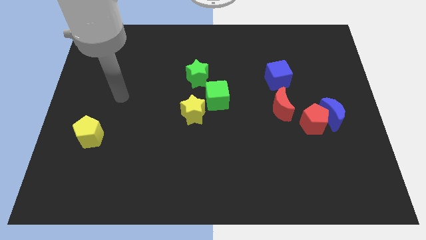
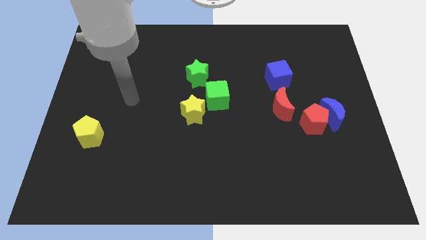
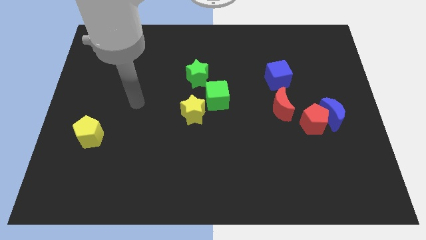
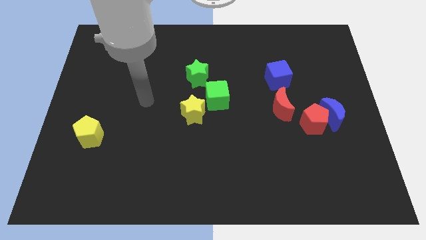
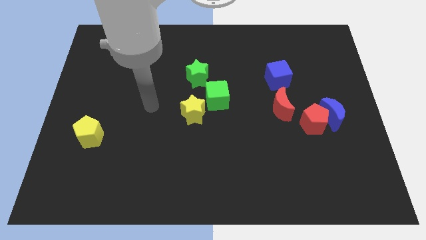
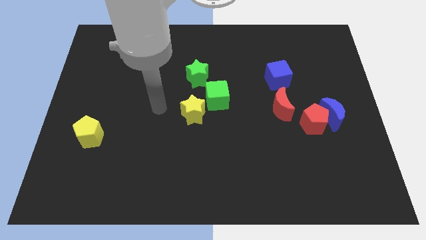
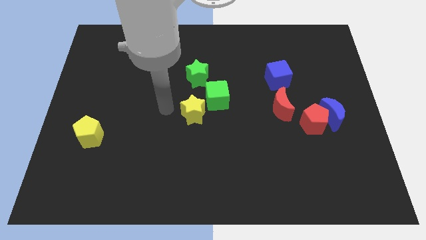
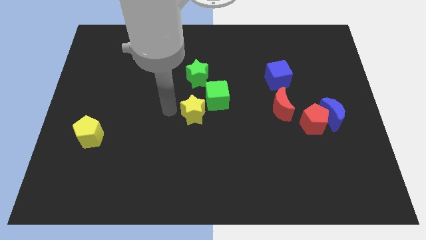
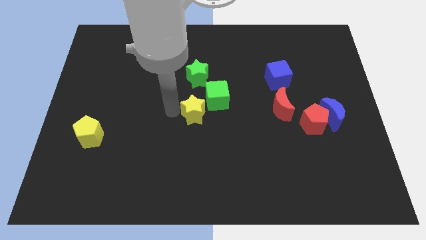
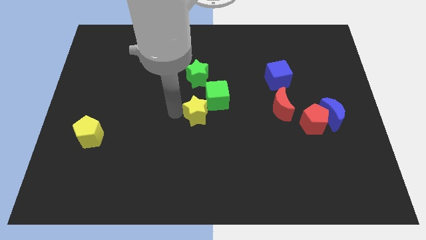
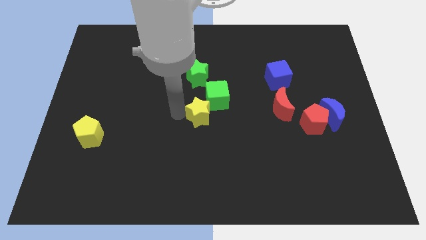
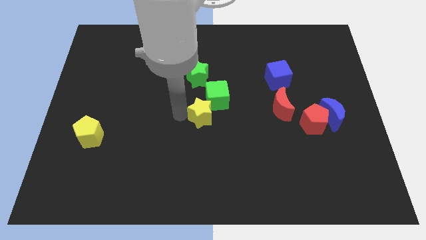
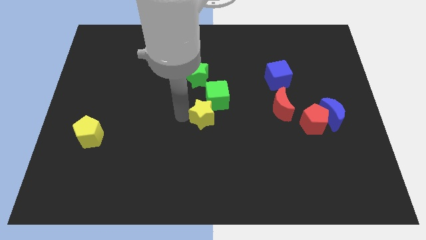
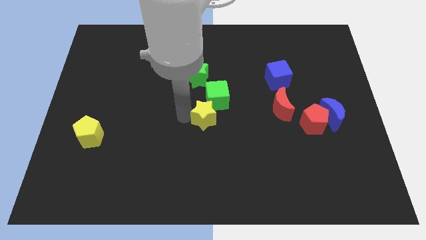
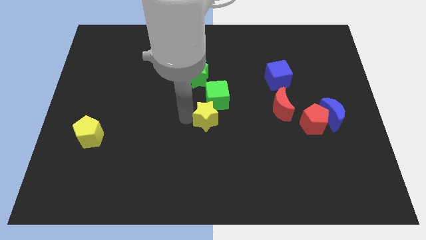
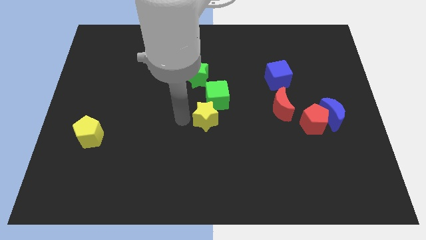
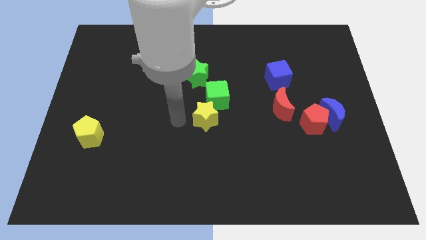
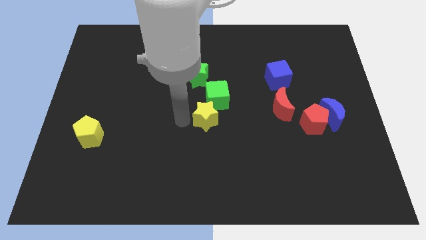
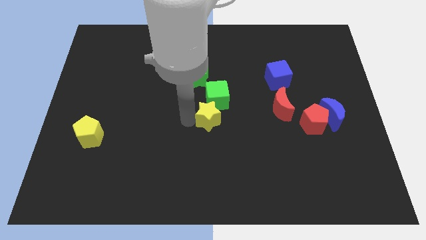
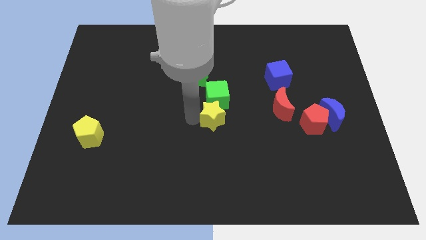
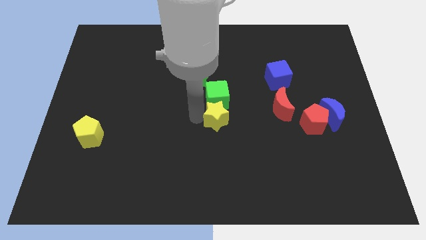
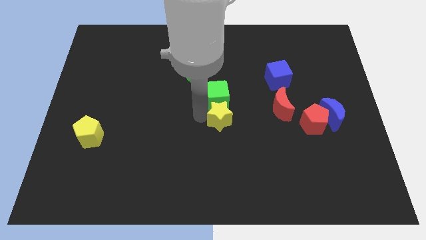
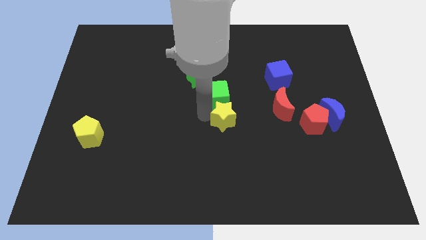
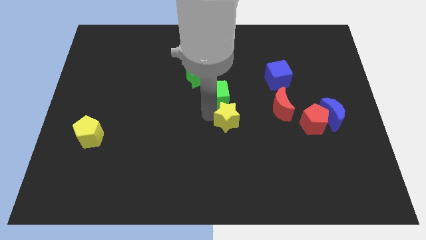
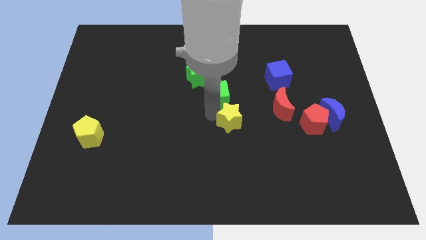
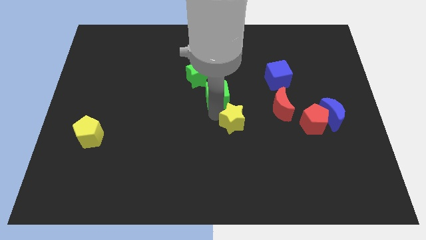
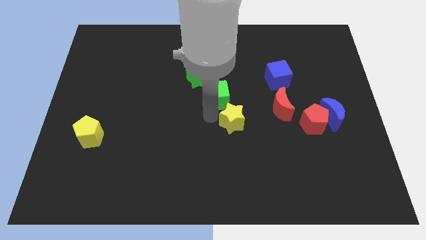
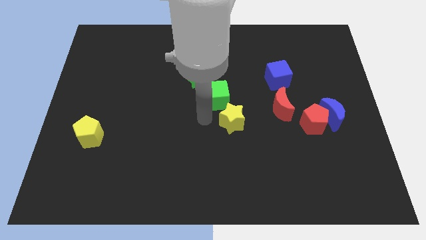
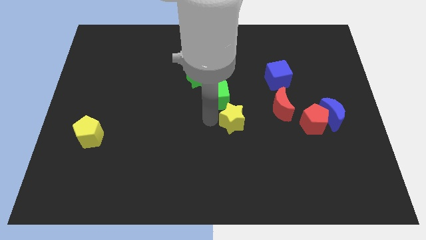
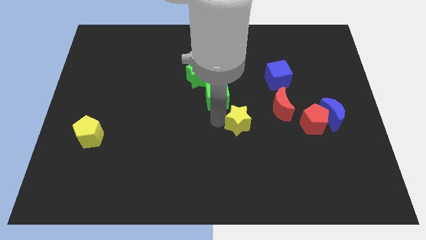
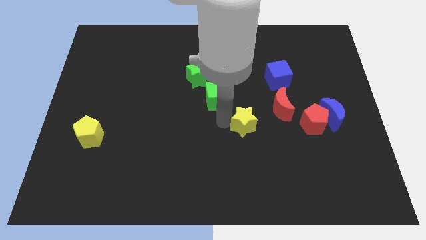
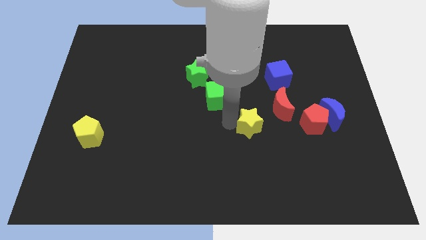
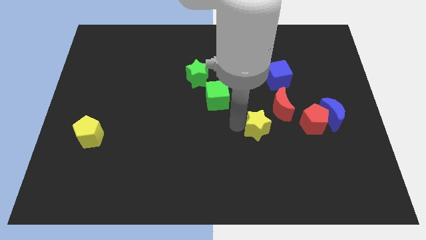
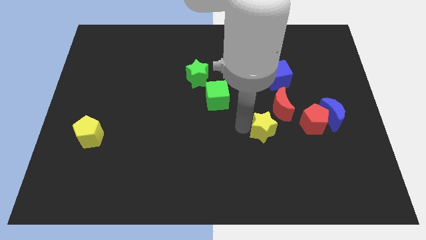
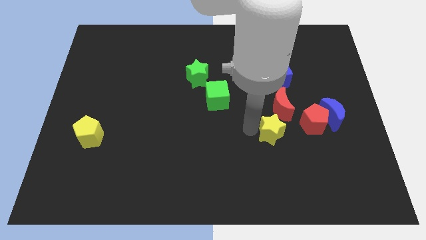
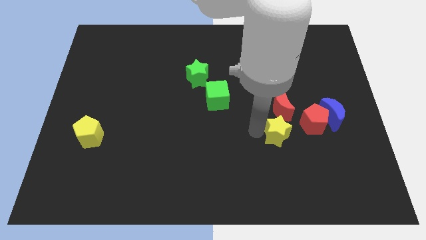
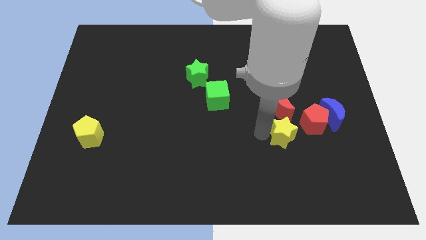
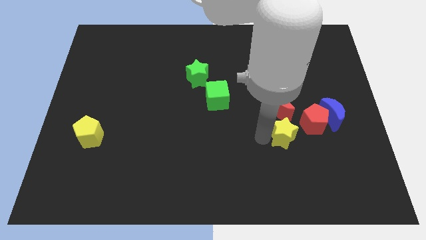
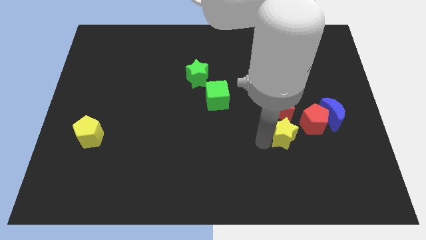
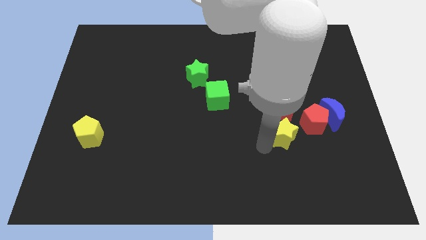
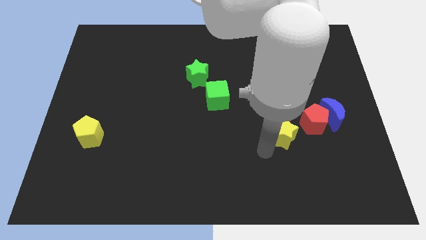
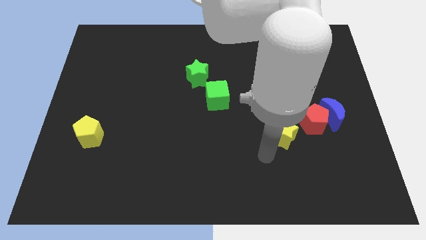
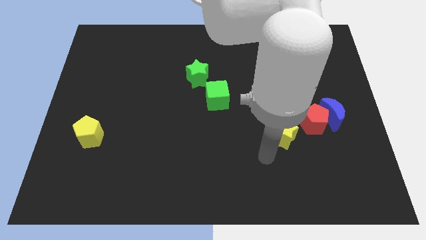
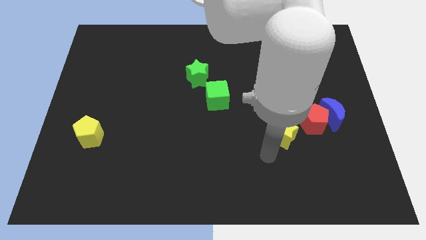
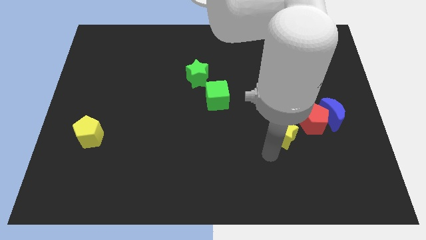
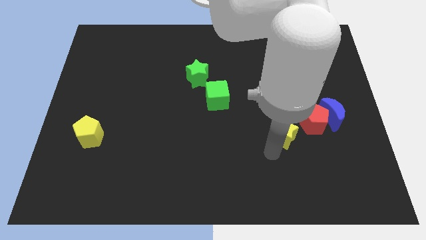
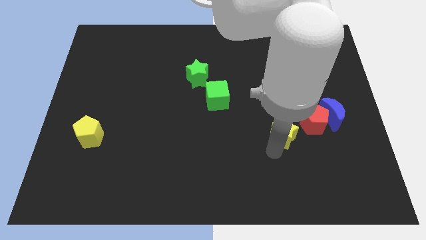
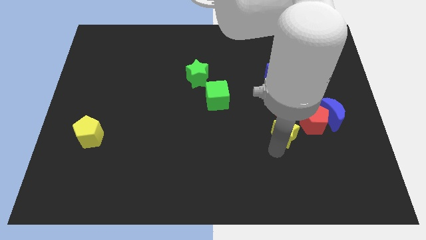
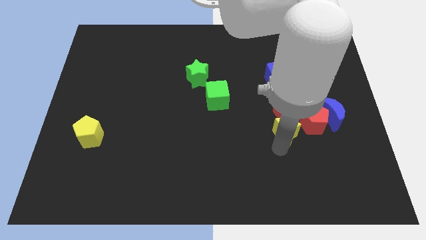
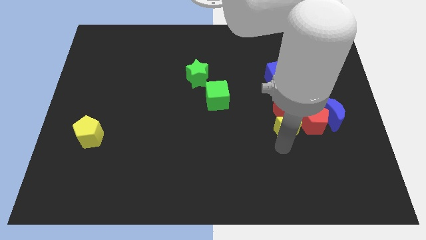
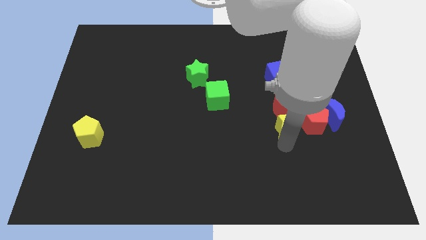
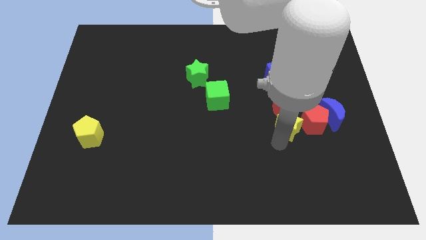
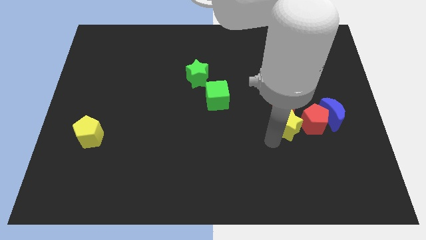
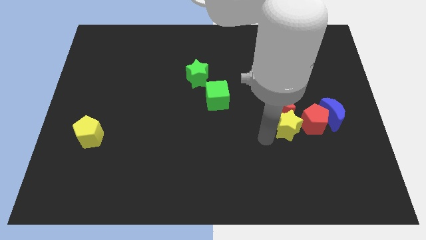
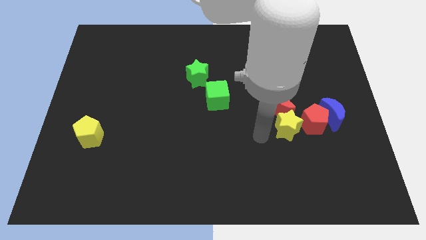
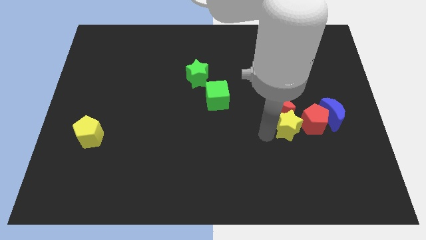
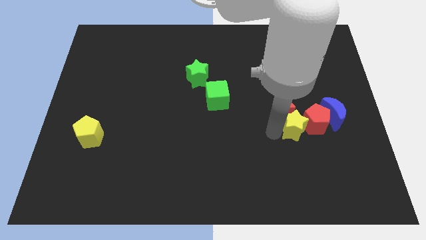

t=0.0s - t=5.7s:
move the yellow star next to the red pentagon

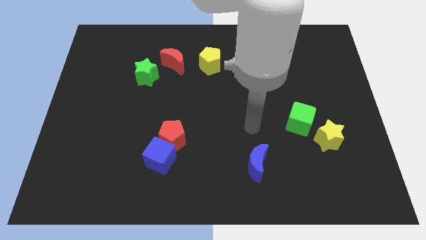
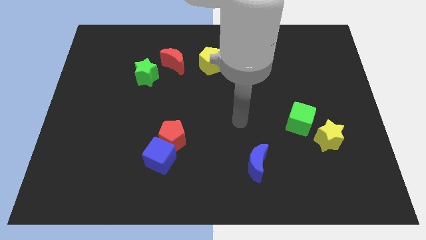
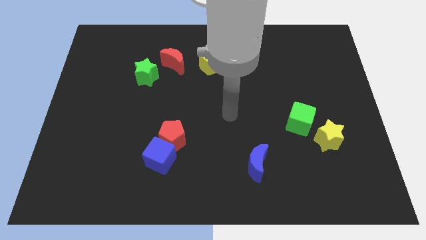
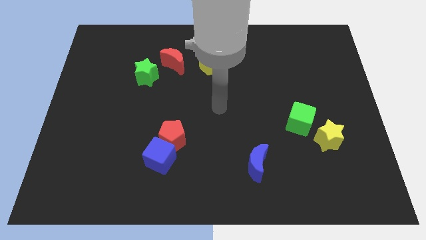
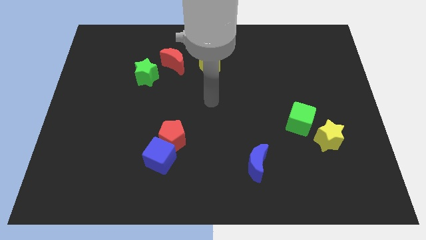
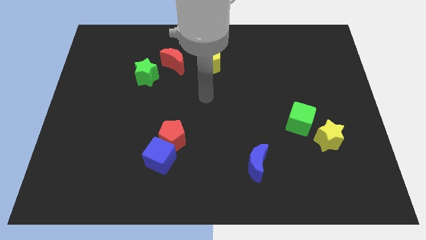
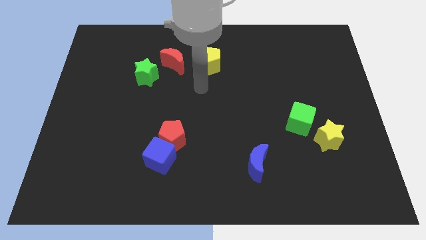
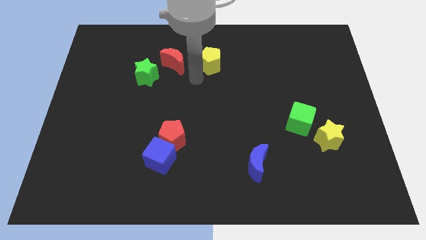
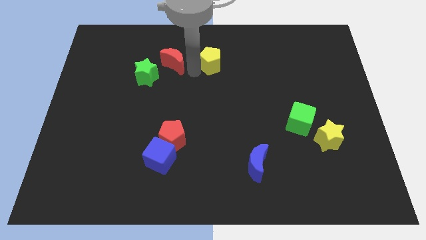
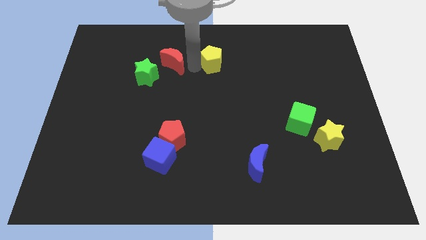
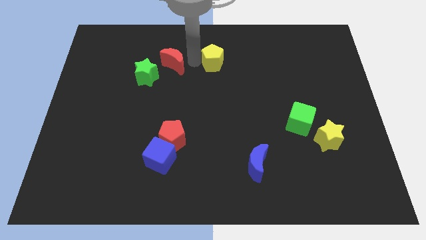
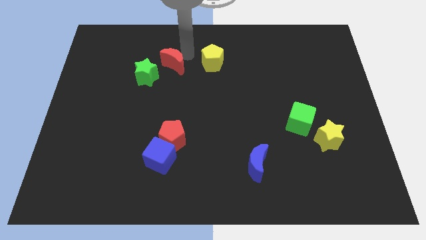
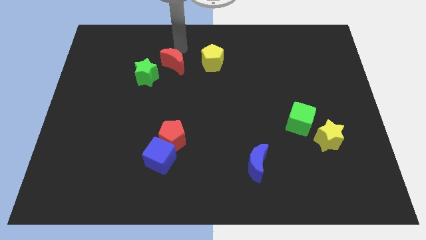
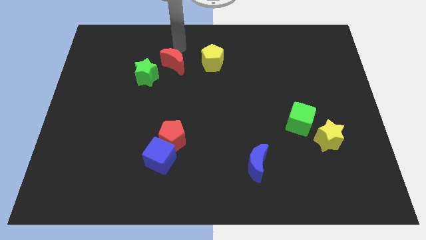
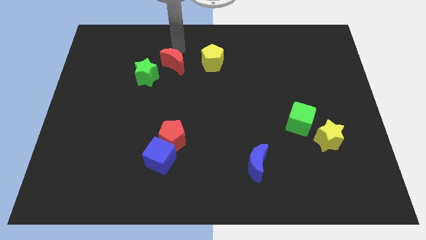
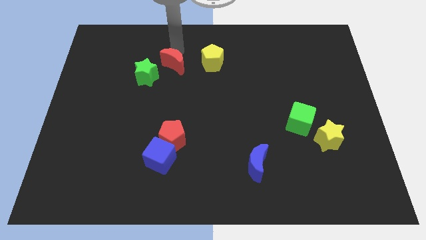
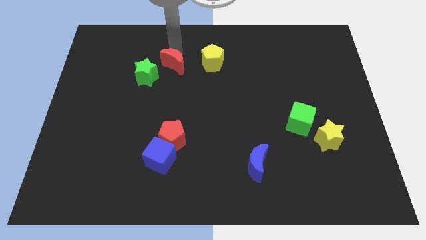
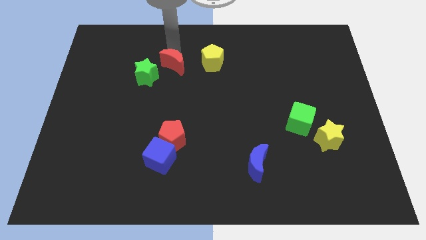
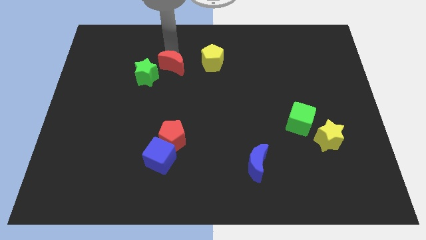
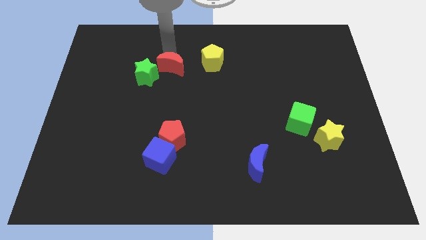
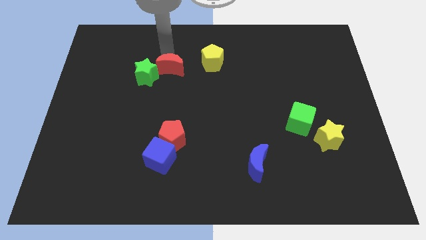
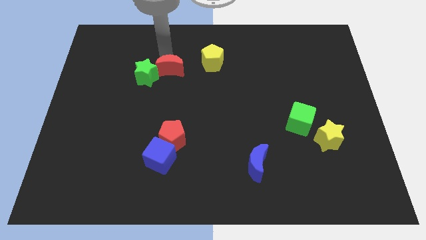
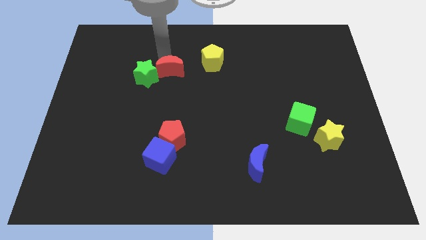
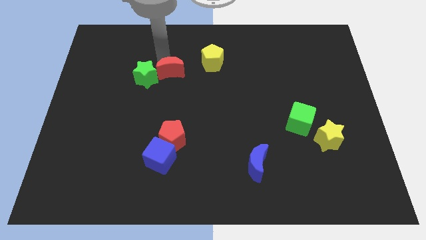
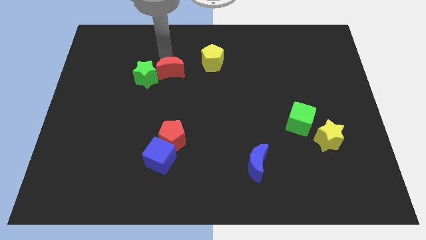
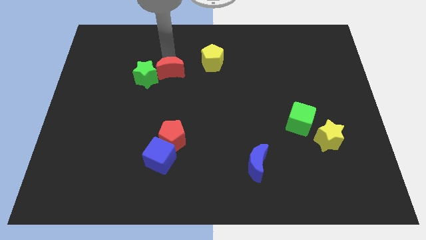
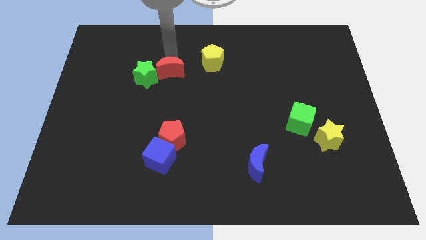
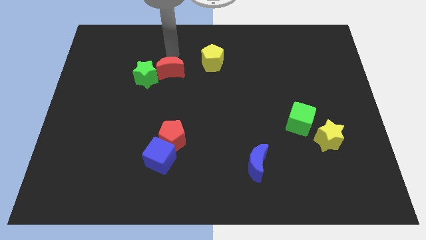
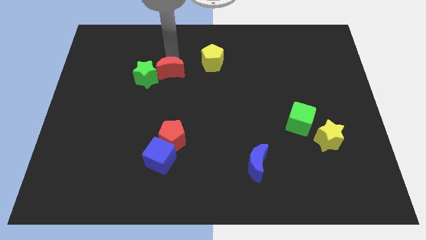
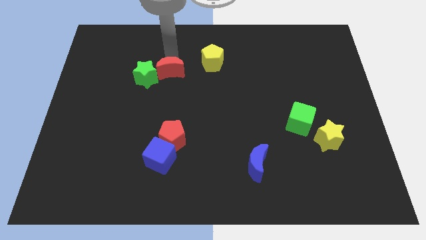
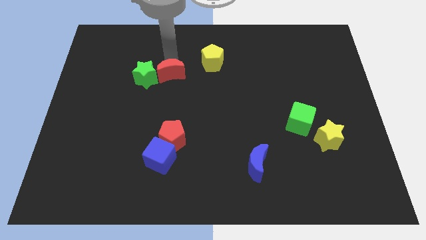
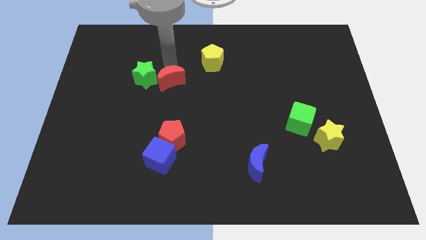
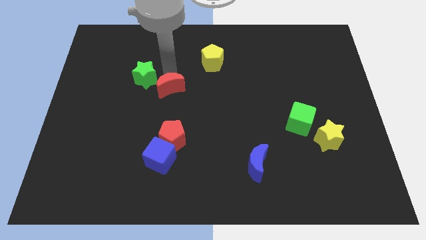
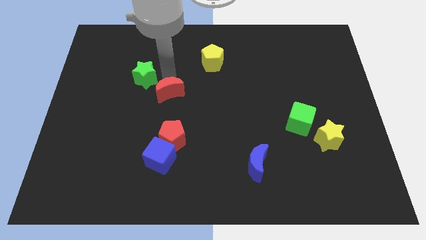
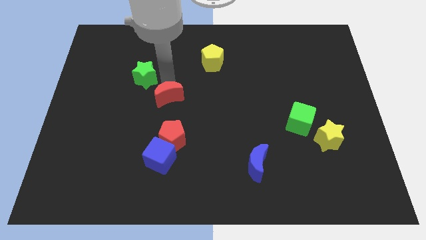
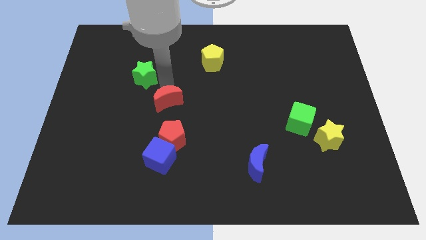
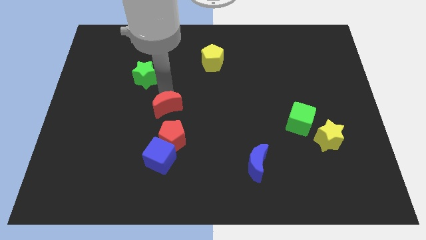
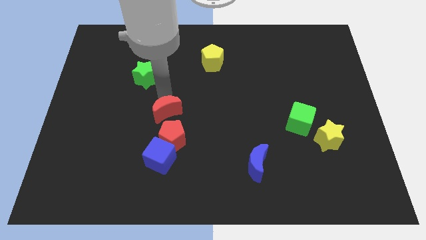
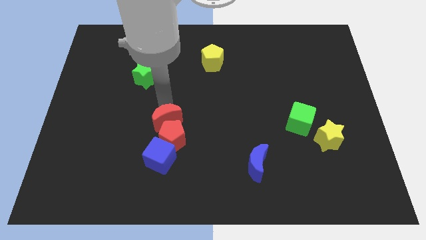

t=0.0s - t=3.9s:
put the red moon next to the red pentagon
